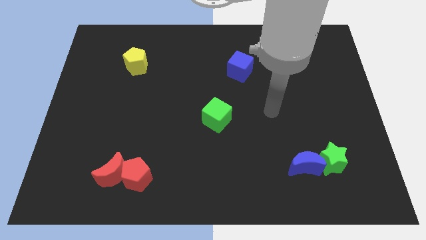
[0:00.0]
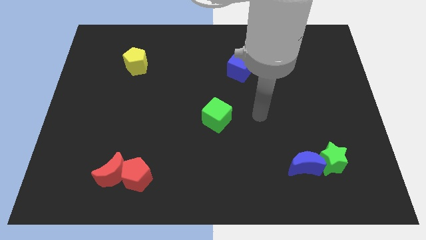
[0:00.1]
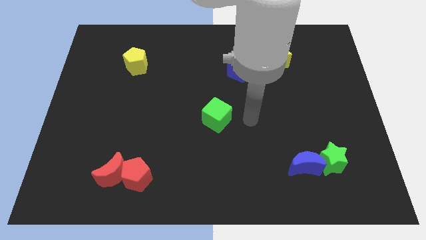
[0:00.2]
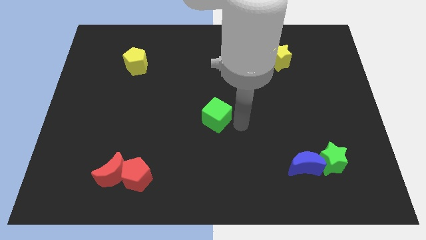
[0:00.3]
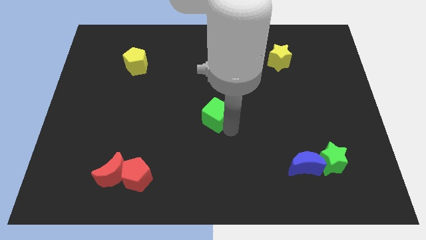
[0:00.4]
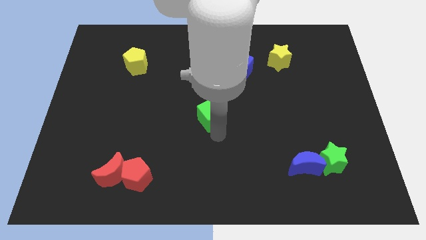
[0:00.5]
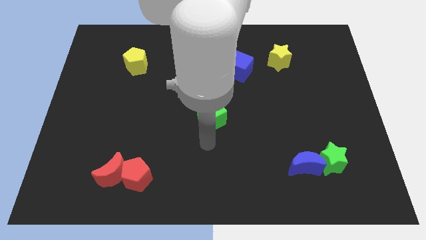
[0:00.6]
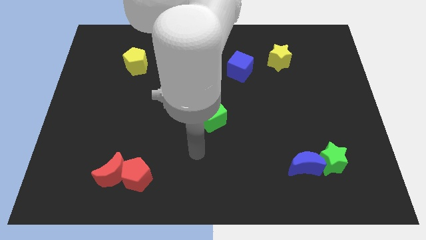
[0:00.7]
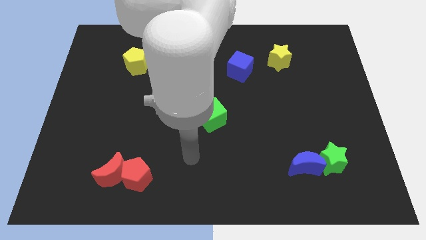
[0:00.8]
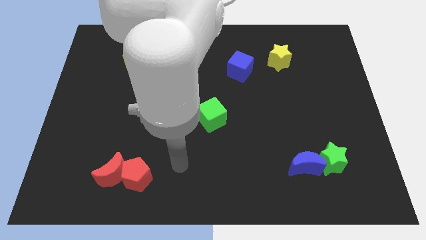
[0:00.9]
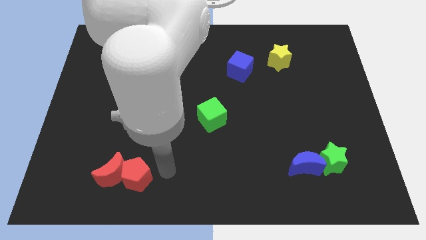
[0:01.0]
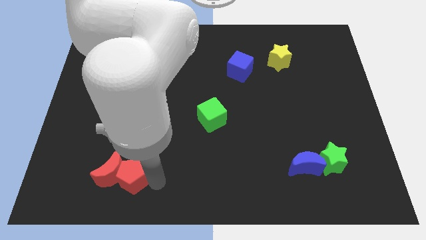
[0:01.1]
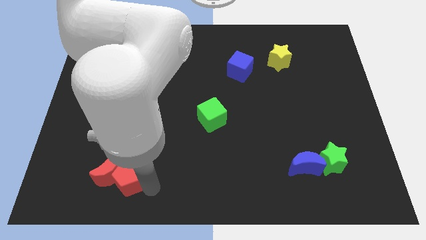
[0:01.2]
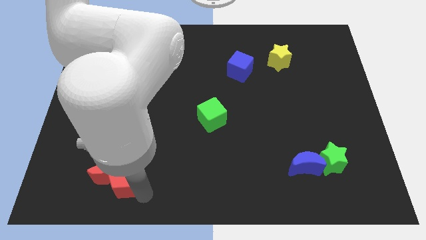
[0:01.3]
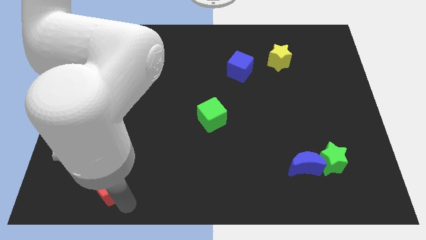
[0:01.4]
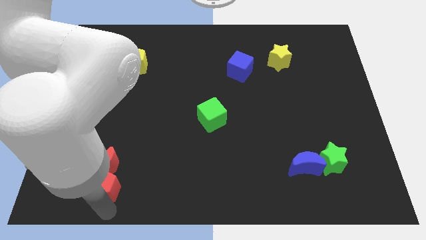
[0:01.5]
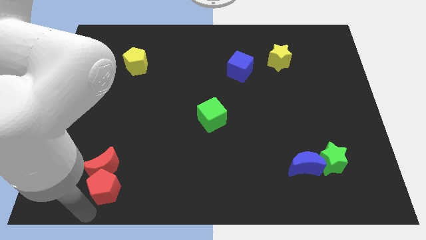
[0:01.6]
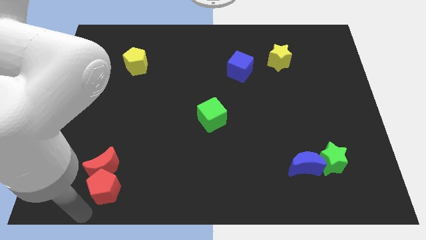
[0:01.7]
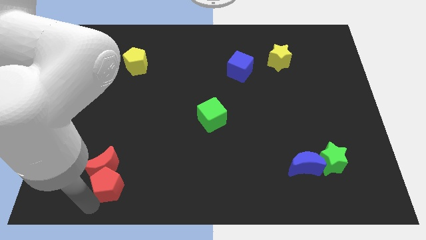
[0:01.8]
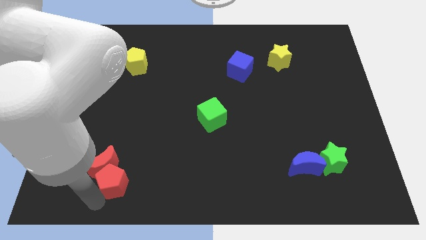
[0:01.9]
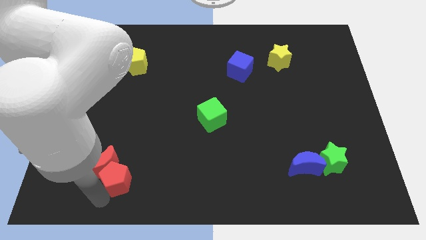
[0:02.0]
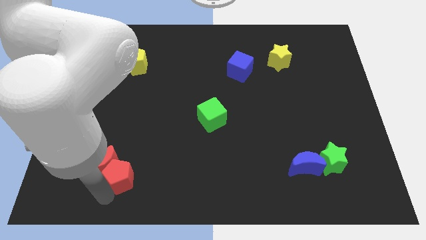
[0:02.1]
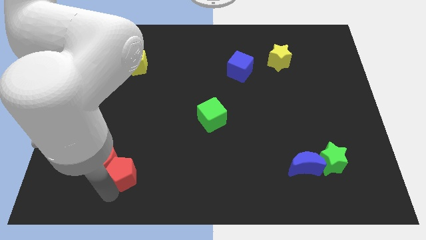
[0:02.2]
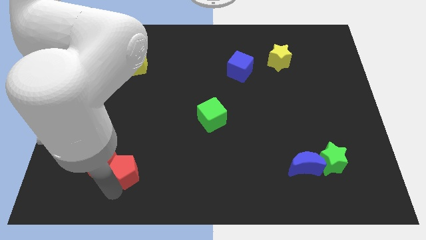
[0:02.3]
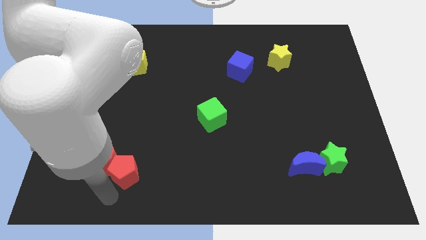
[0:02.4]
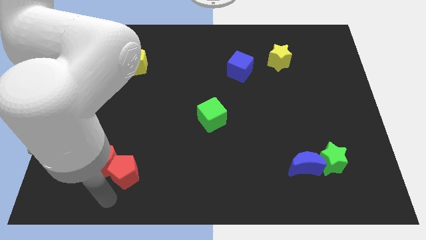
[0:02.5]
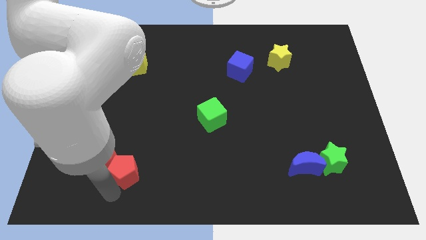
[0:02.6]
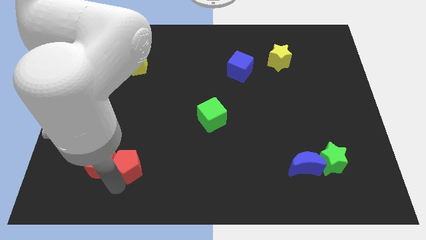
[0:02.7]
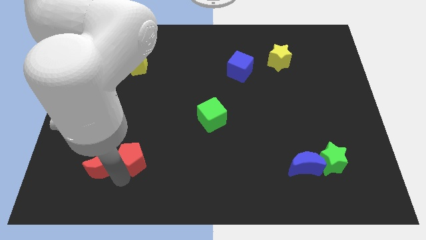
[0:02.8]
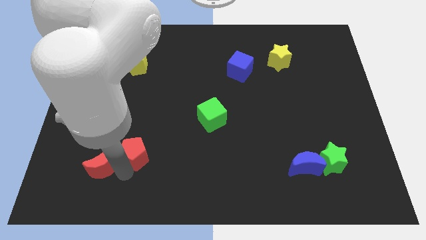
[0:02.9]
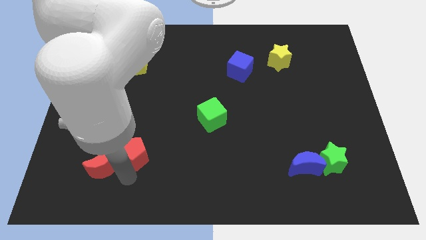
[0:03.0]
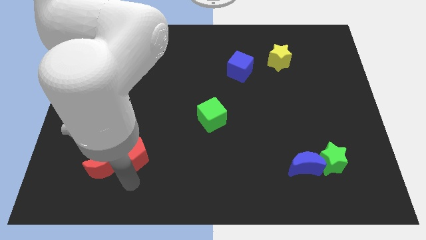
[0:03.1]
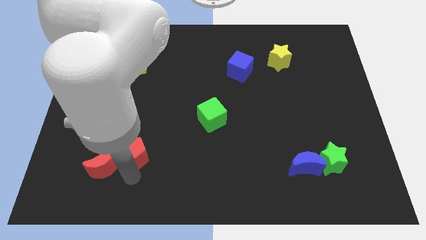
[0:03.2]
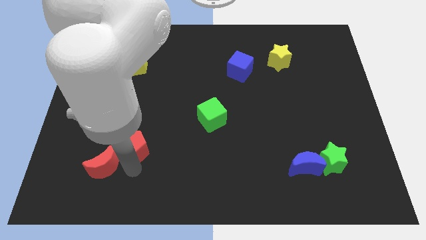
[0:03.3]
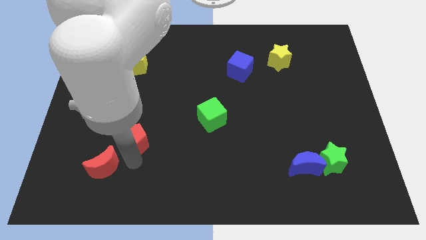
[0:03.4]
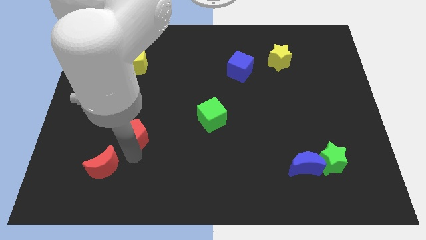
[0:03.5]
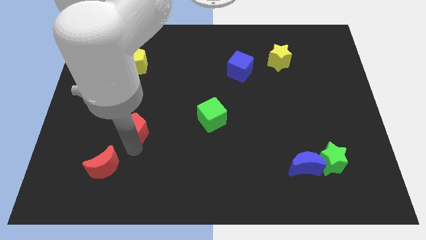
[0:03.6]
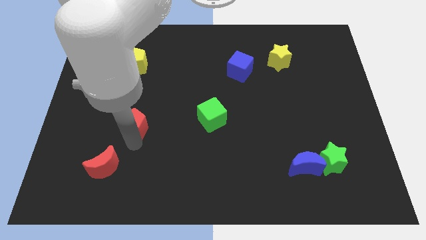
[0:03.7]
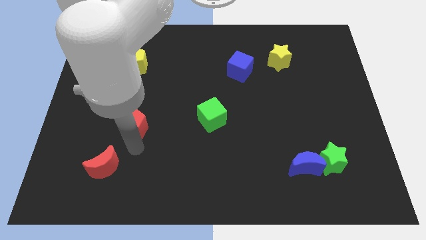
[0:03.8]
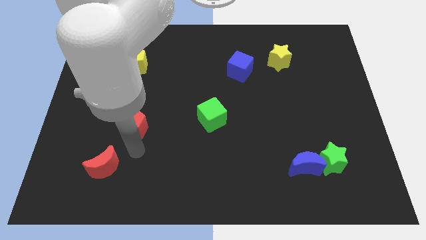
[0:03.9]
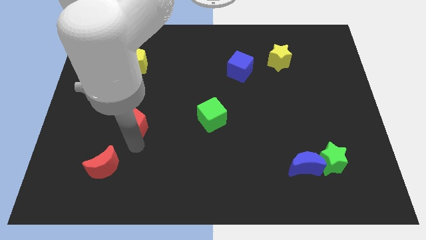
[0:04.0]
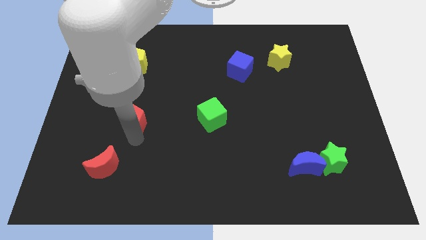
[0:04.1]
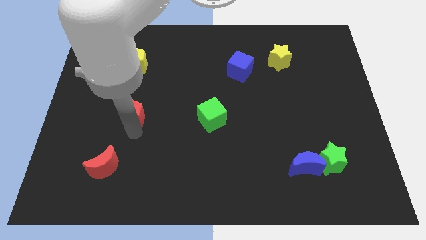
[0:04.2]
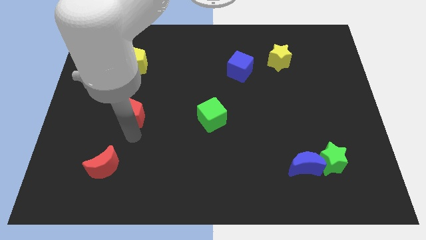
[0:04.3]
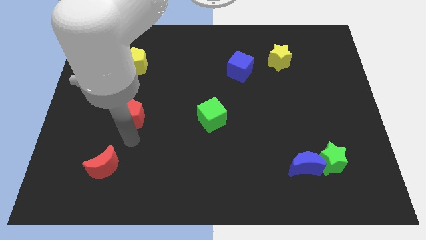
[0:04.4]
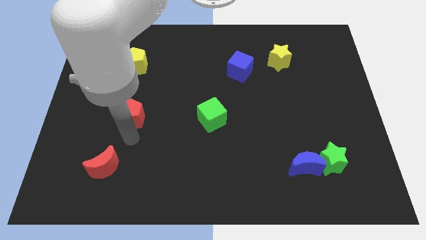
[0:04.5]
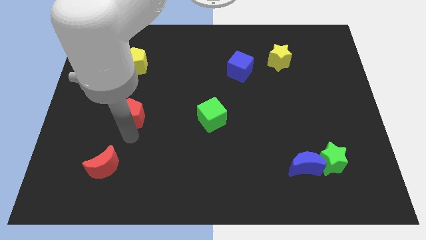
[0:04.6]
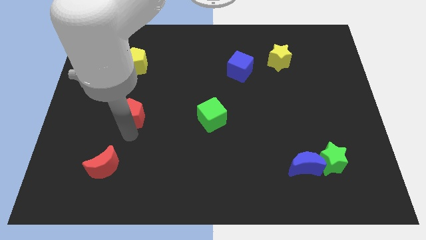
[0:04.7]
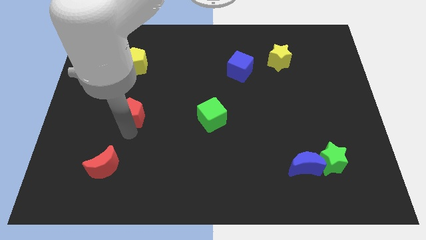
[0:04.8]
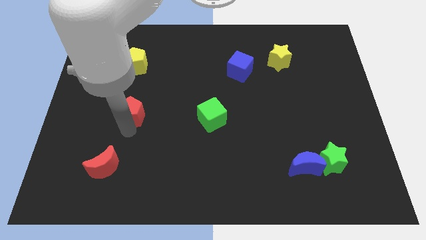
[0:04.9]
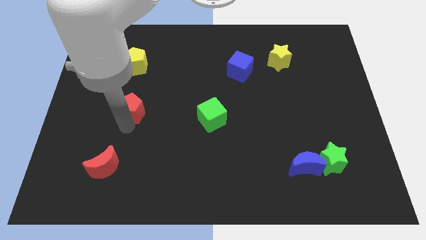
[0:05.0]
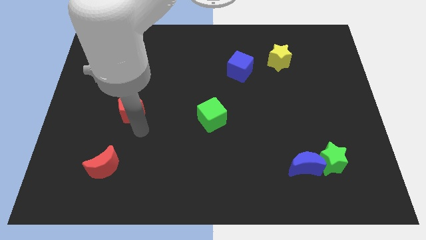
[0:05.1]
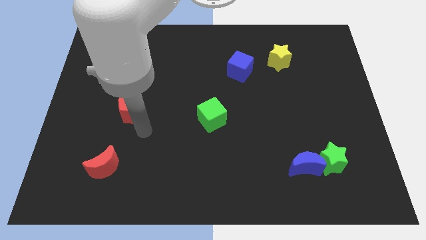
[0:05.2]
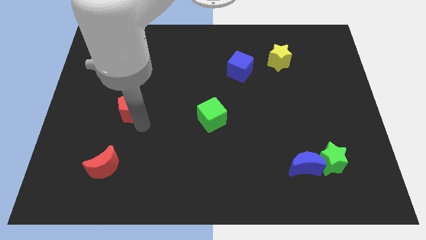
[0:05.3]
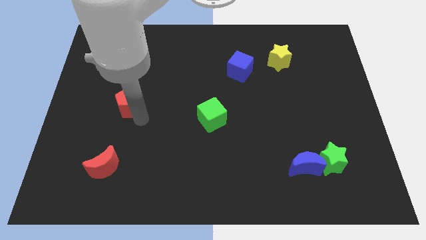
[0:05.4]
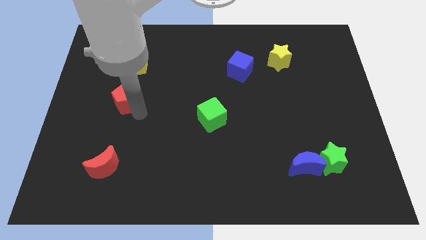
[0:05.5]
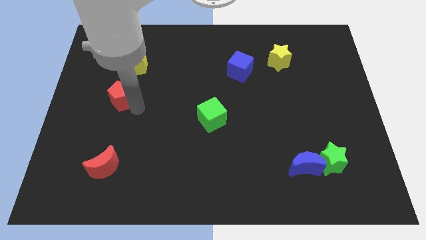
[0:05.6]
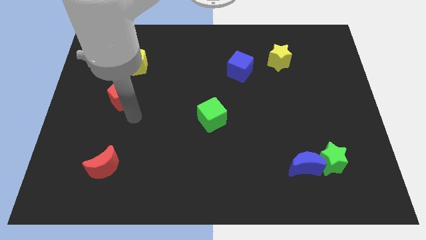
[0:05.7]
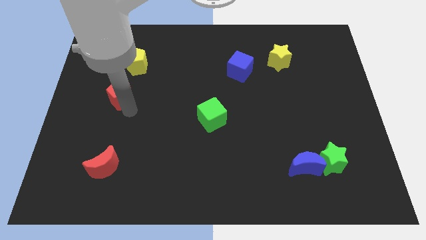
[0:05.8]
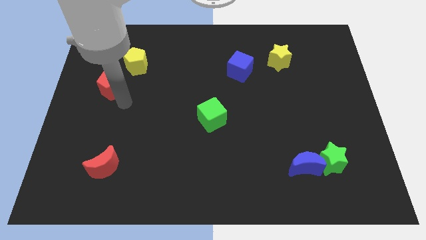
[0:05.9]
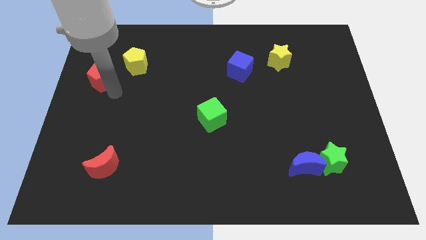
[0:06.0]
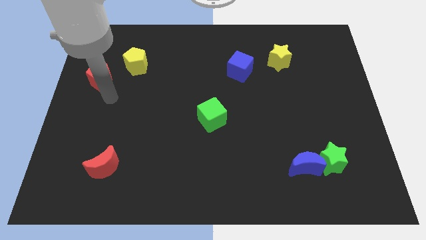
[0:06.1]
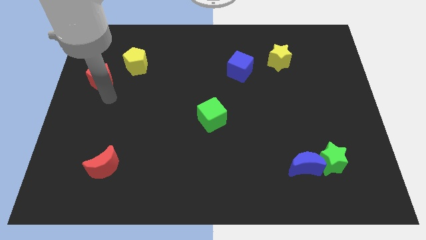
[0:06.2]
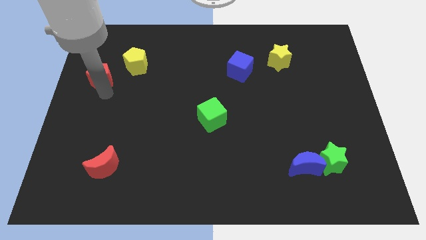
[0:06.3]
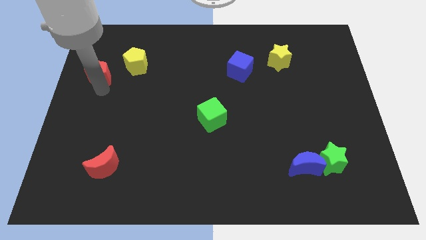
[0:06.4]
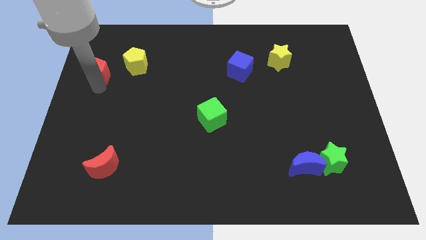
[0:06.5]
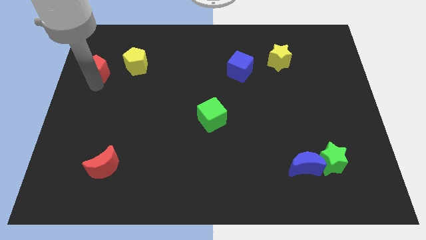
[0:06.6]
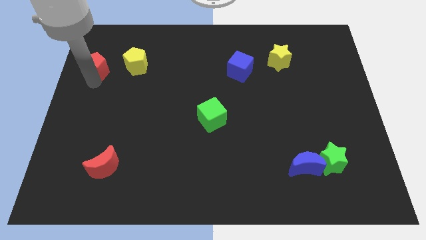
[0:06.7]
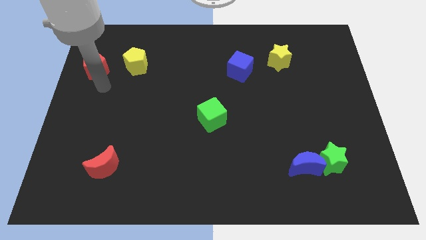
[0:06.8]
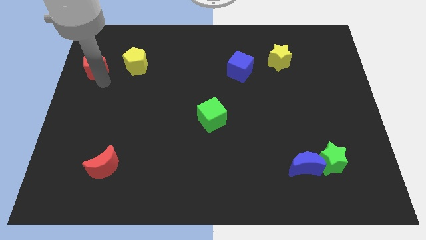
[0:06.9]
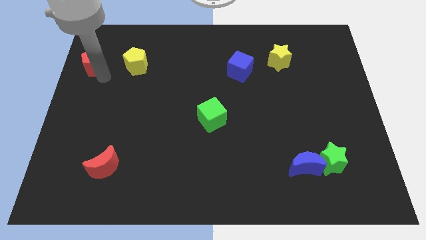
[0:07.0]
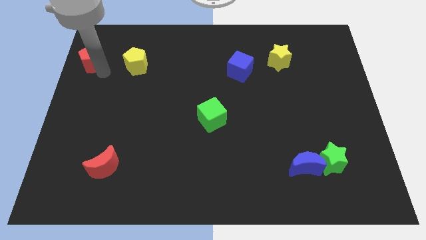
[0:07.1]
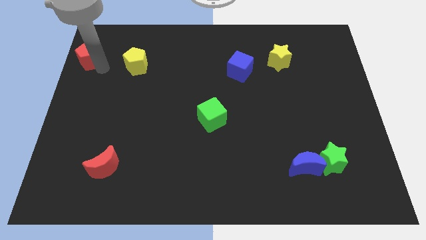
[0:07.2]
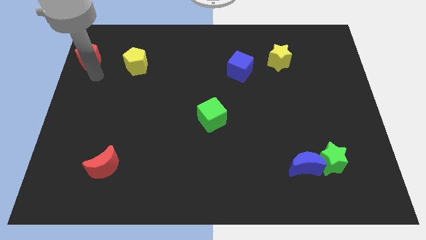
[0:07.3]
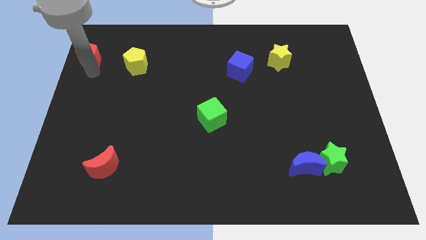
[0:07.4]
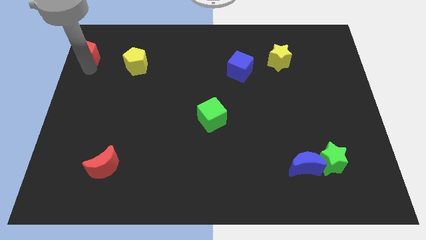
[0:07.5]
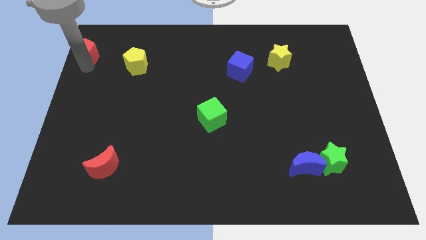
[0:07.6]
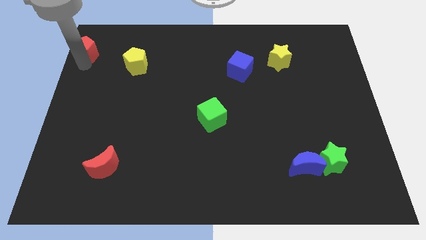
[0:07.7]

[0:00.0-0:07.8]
move the red pentagon to the top left corner
